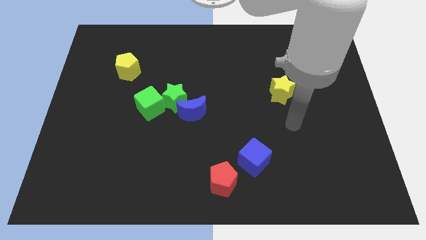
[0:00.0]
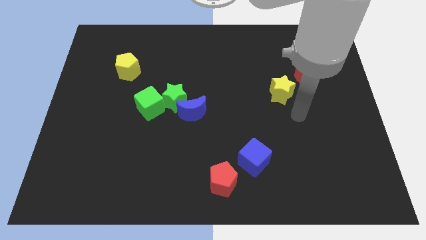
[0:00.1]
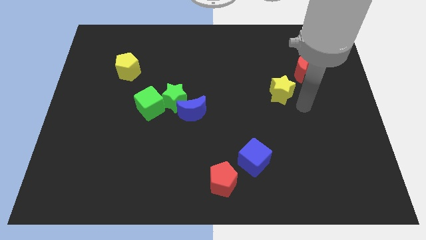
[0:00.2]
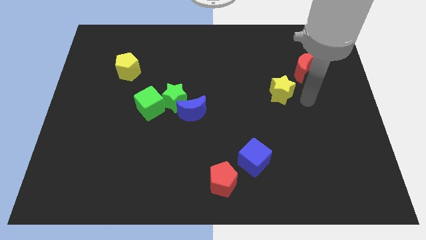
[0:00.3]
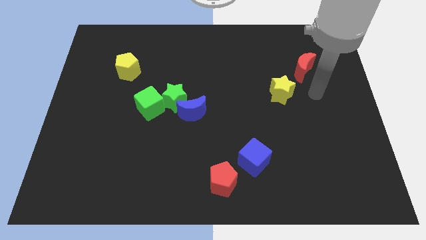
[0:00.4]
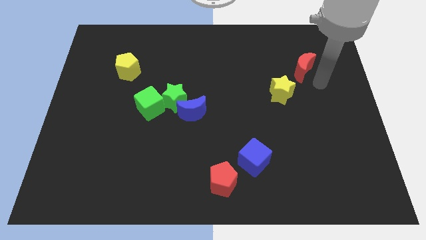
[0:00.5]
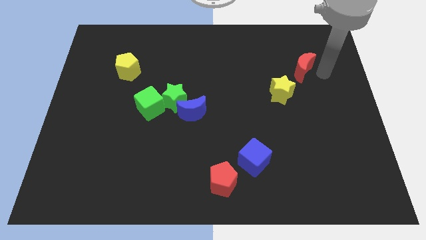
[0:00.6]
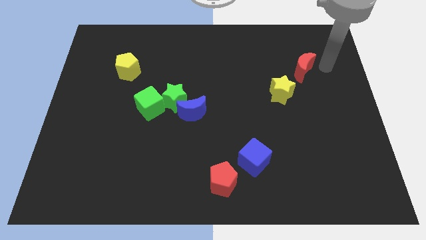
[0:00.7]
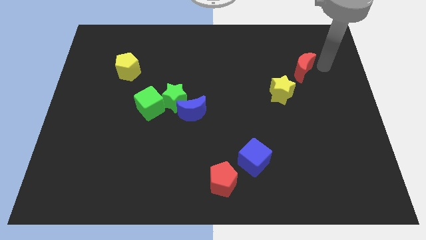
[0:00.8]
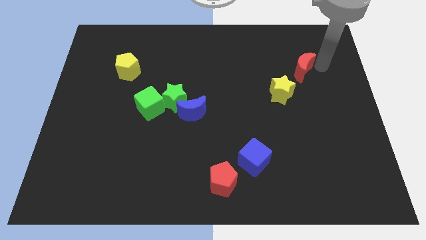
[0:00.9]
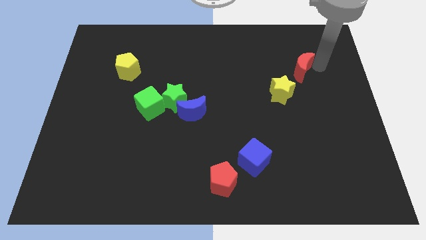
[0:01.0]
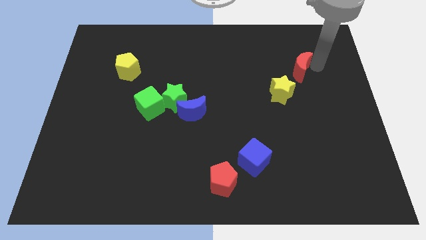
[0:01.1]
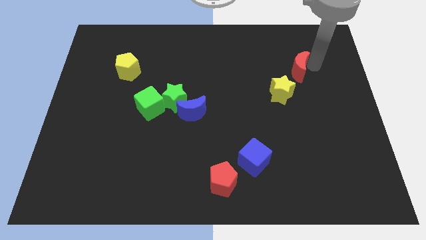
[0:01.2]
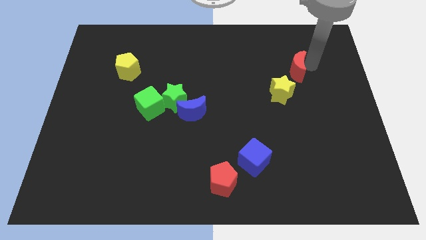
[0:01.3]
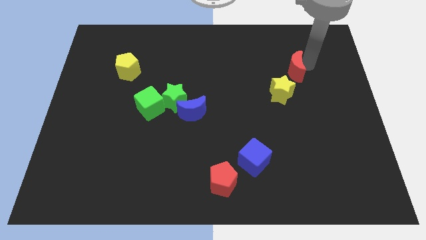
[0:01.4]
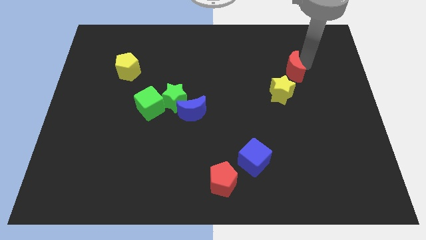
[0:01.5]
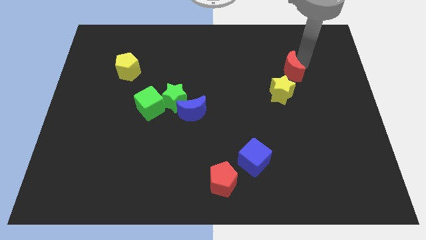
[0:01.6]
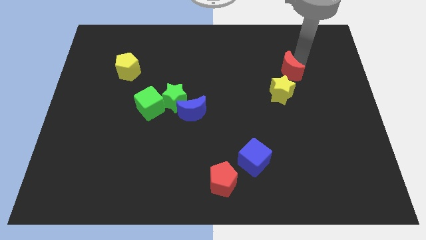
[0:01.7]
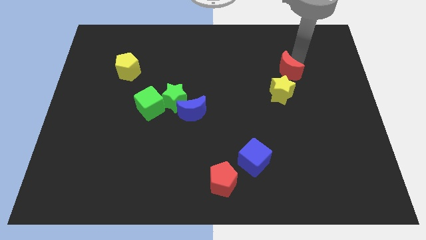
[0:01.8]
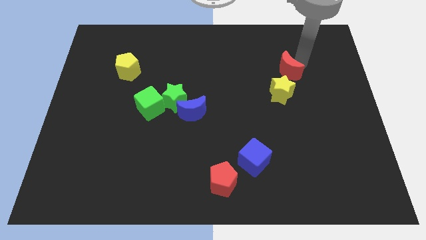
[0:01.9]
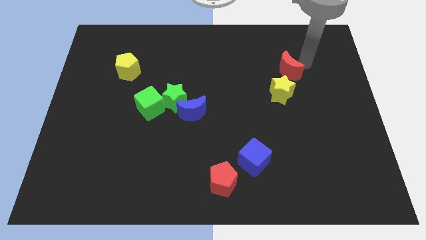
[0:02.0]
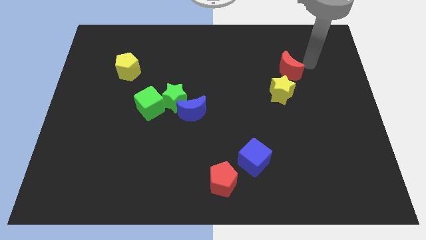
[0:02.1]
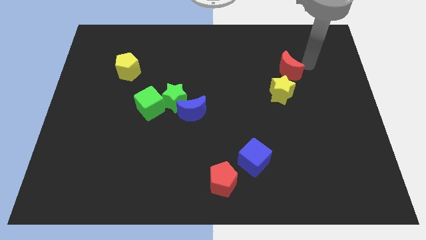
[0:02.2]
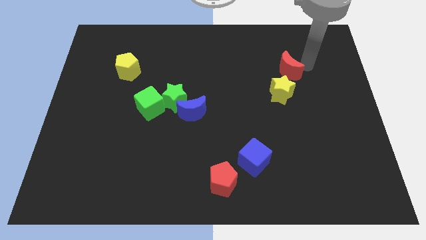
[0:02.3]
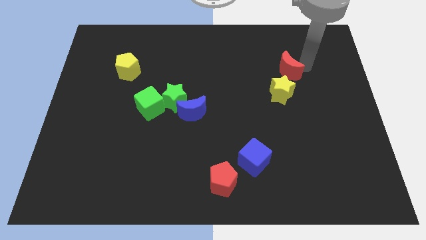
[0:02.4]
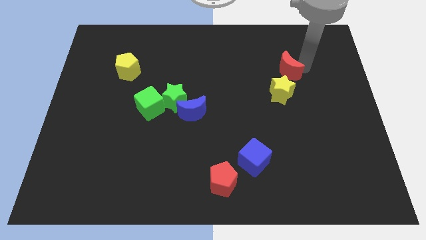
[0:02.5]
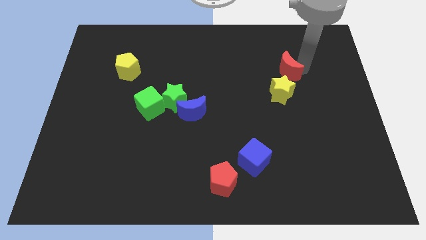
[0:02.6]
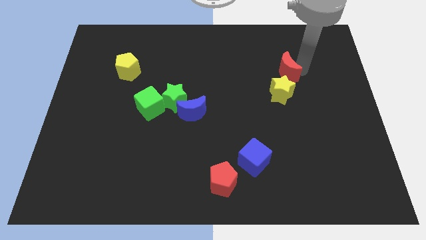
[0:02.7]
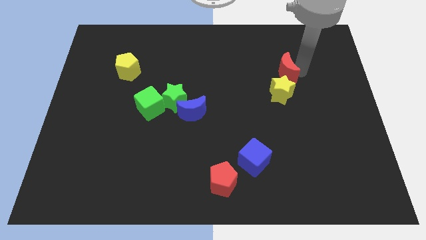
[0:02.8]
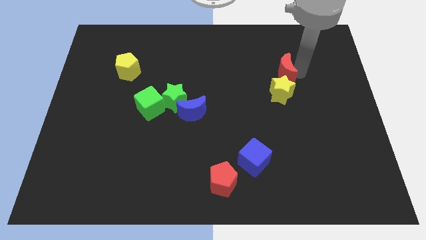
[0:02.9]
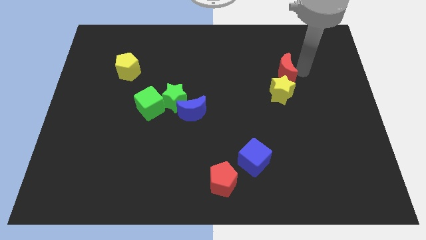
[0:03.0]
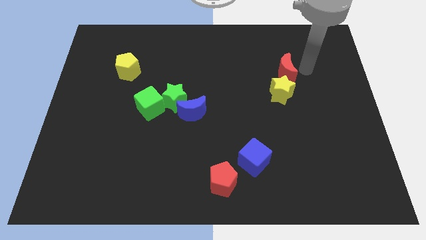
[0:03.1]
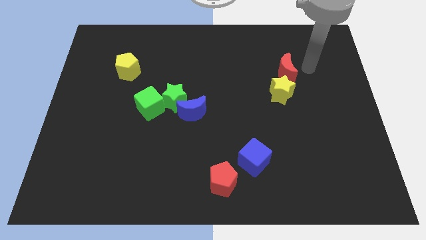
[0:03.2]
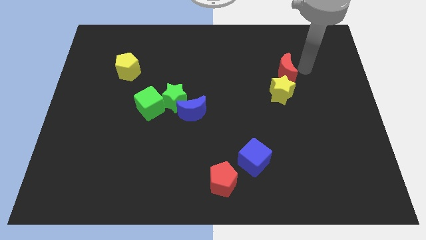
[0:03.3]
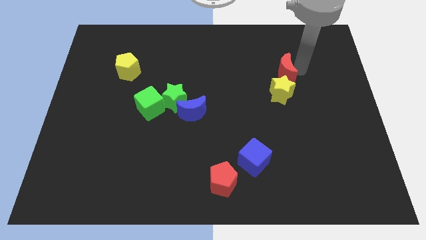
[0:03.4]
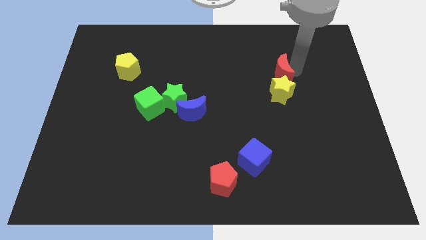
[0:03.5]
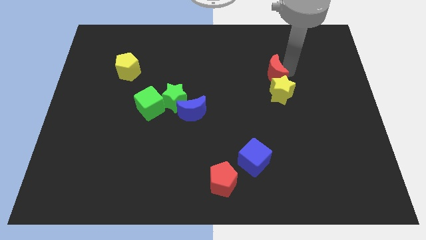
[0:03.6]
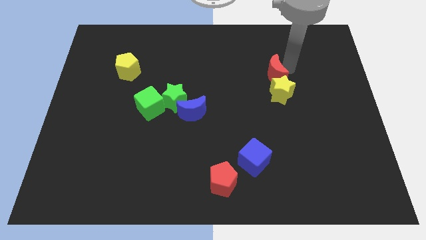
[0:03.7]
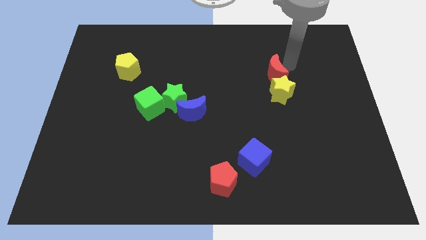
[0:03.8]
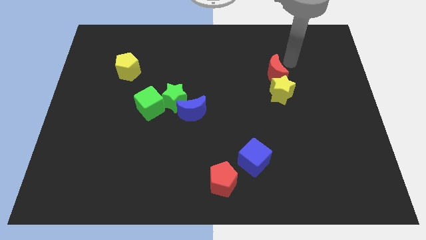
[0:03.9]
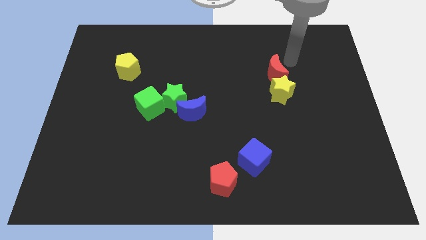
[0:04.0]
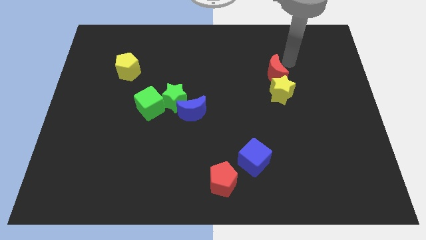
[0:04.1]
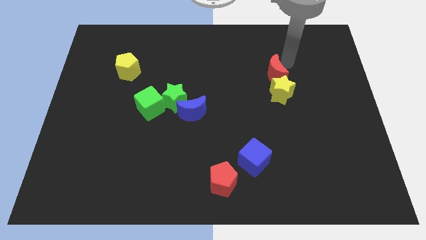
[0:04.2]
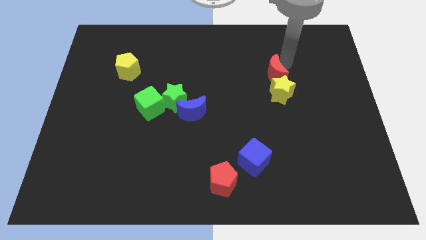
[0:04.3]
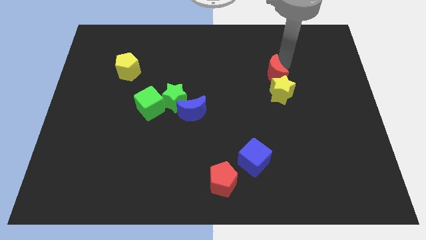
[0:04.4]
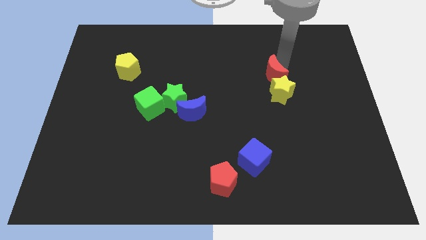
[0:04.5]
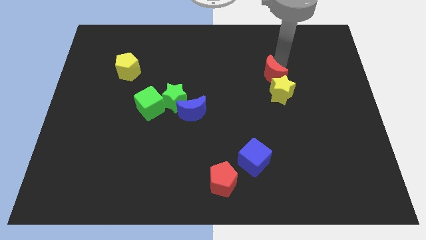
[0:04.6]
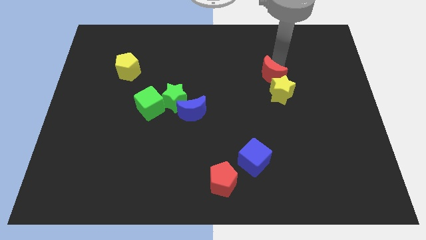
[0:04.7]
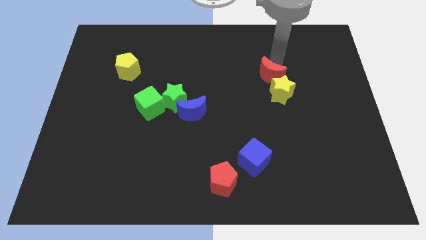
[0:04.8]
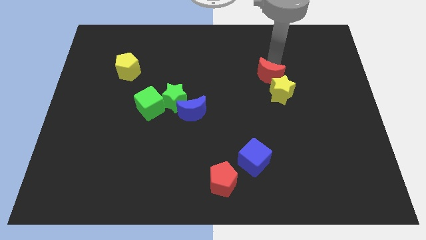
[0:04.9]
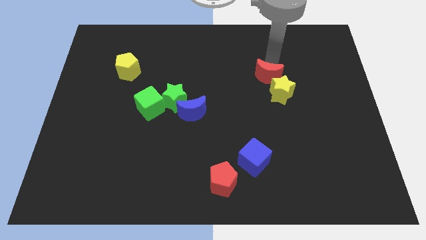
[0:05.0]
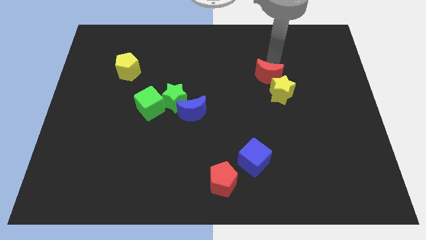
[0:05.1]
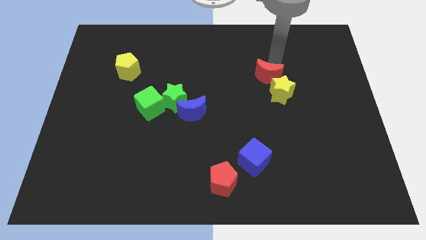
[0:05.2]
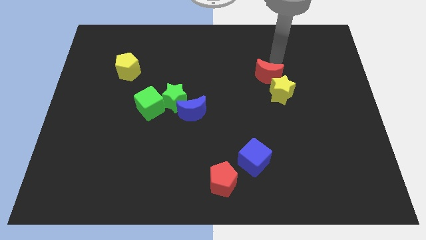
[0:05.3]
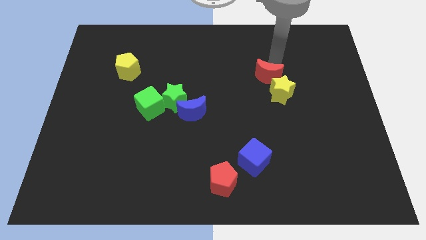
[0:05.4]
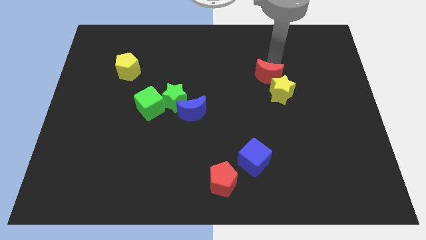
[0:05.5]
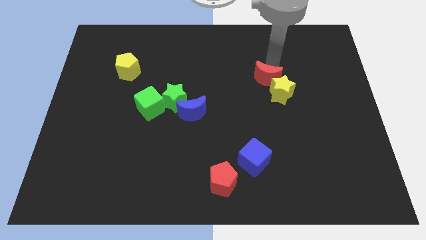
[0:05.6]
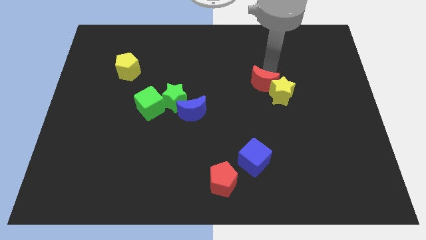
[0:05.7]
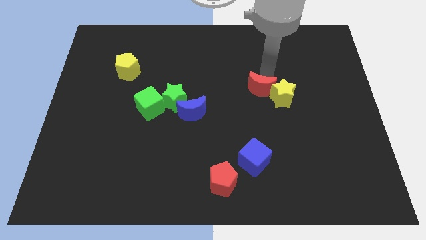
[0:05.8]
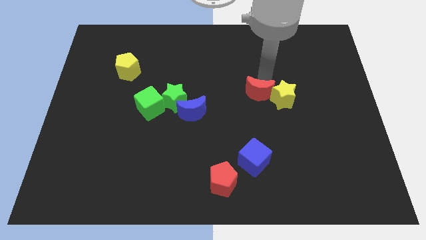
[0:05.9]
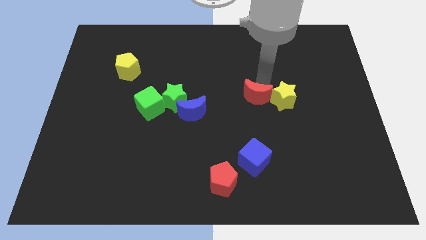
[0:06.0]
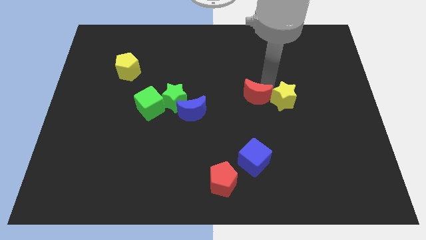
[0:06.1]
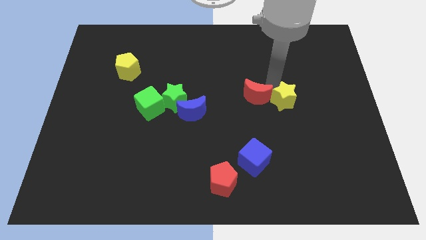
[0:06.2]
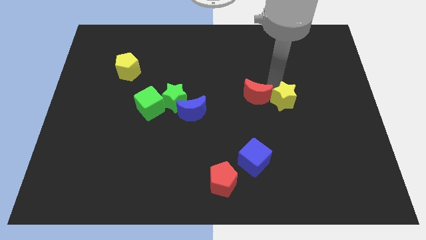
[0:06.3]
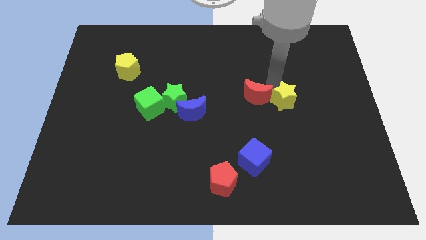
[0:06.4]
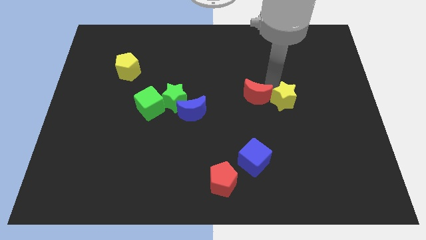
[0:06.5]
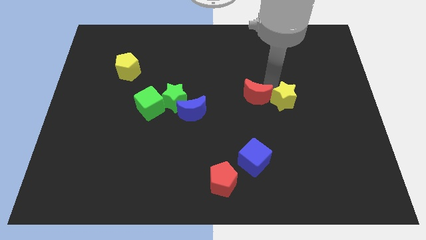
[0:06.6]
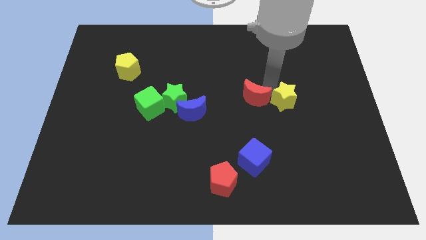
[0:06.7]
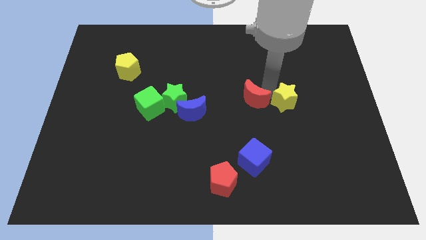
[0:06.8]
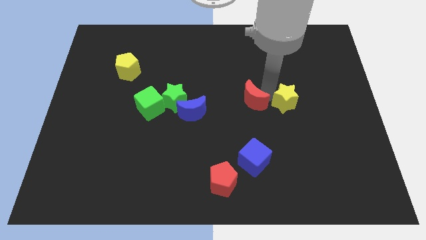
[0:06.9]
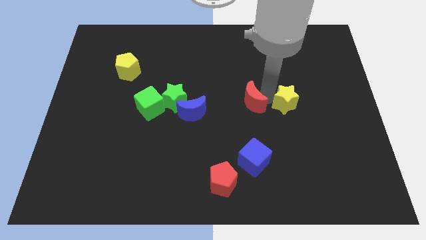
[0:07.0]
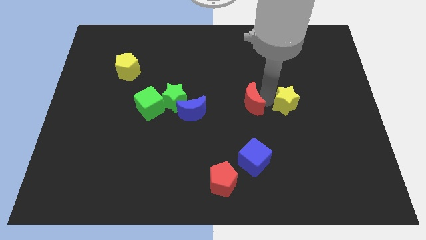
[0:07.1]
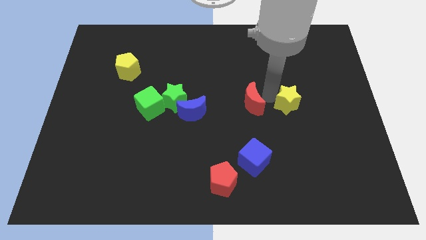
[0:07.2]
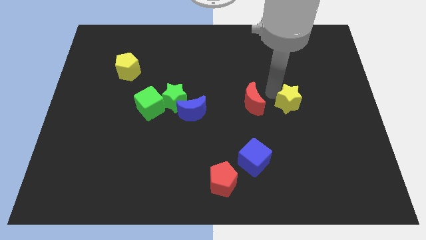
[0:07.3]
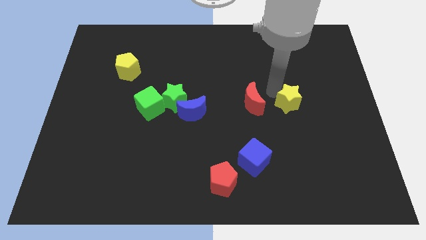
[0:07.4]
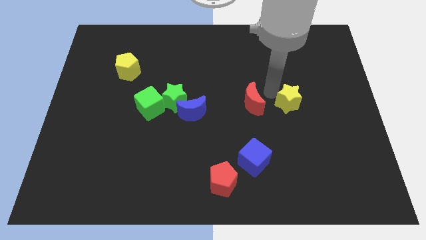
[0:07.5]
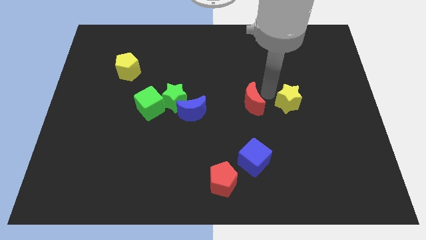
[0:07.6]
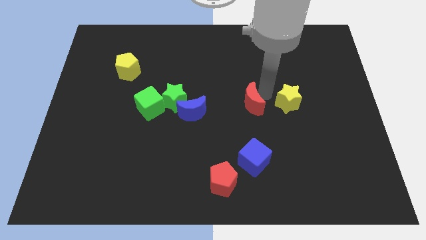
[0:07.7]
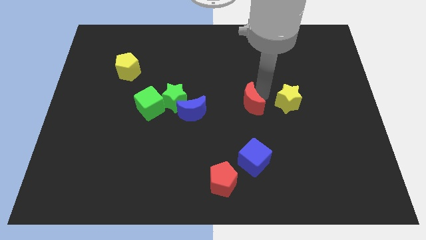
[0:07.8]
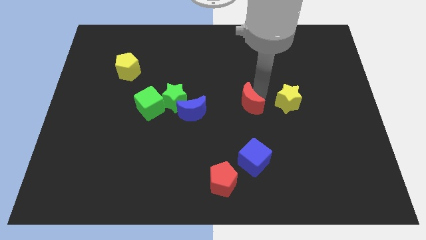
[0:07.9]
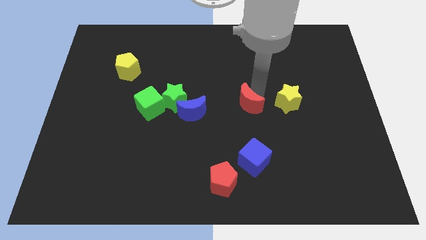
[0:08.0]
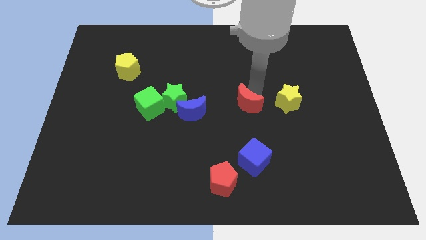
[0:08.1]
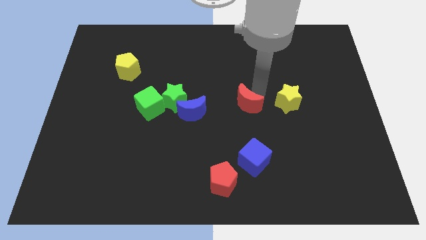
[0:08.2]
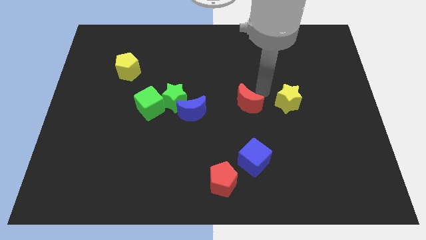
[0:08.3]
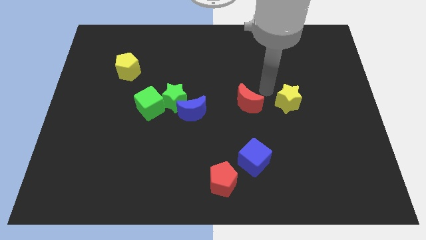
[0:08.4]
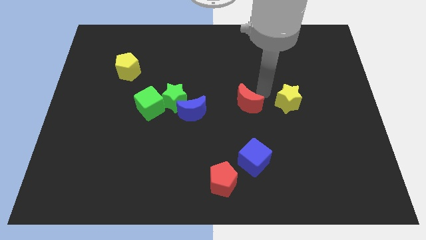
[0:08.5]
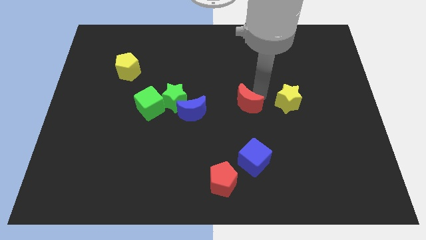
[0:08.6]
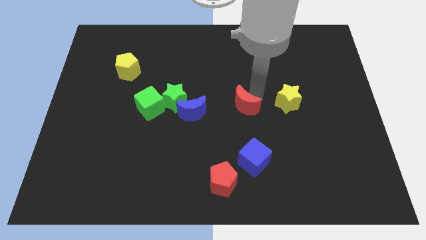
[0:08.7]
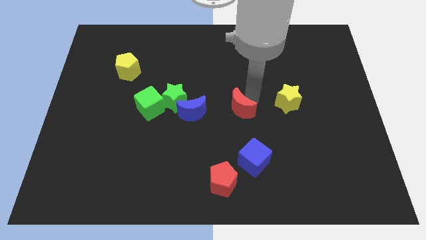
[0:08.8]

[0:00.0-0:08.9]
slide the red moon downwards and to the left diagonally
